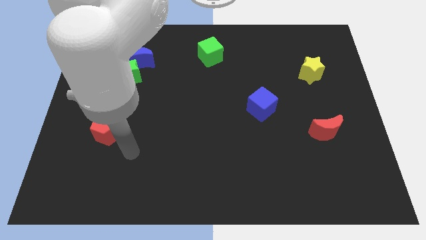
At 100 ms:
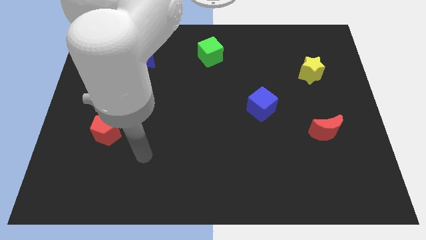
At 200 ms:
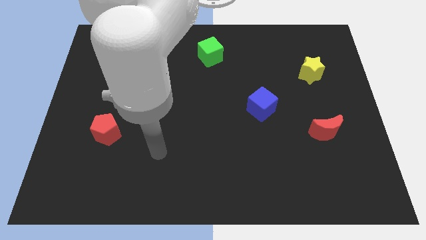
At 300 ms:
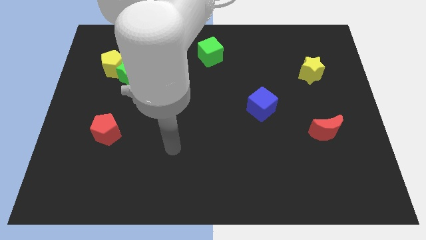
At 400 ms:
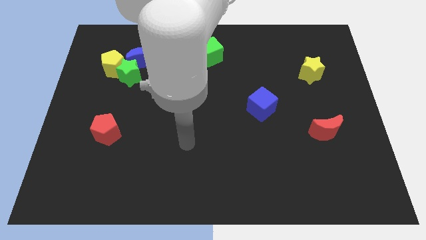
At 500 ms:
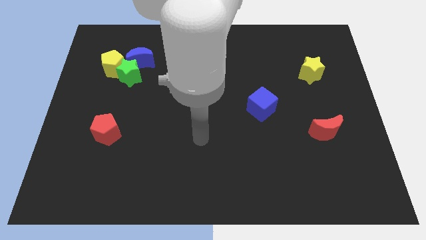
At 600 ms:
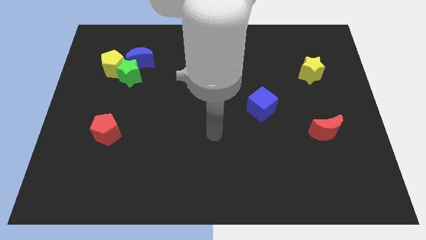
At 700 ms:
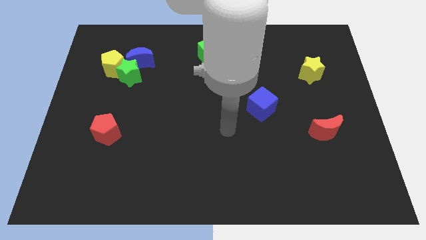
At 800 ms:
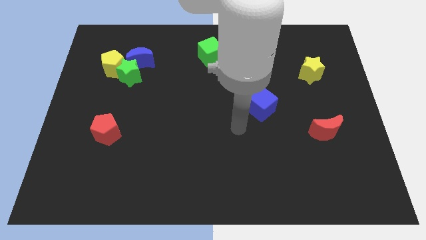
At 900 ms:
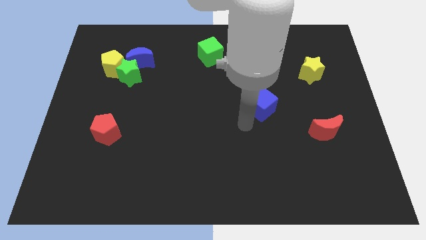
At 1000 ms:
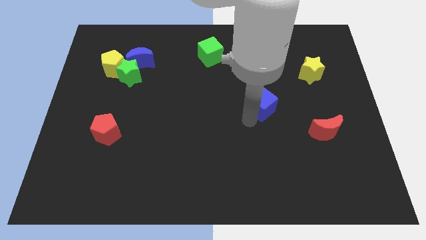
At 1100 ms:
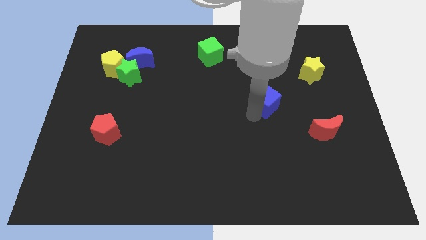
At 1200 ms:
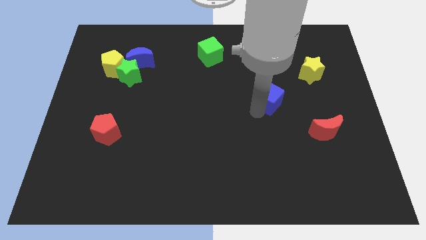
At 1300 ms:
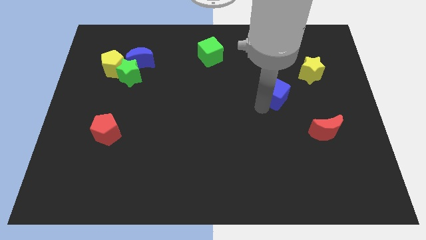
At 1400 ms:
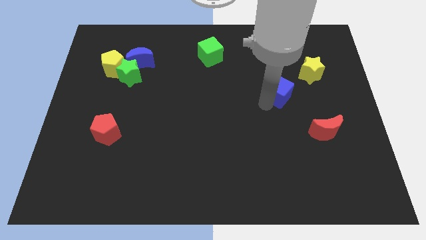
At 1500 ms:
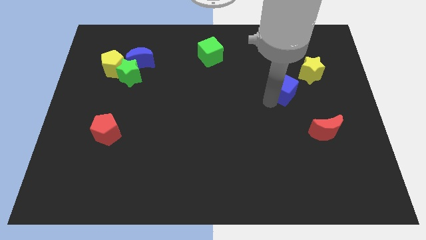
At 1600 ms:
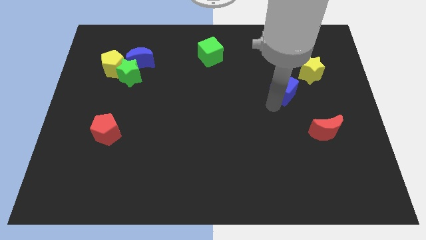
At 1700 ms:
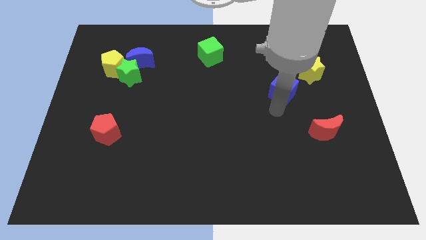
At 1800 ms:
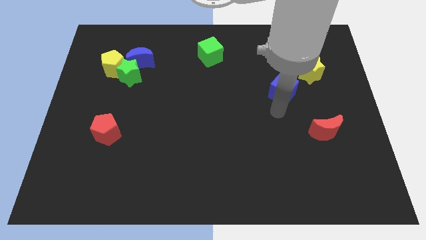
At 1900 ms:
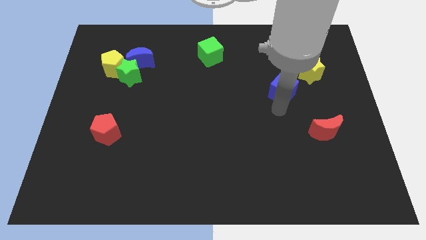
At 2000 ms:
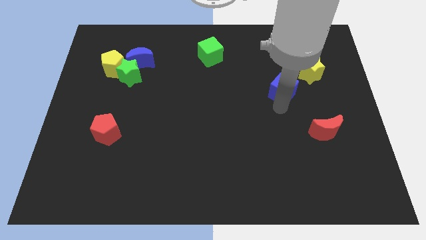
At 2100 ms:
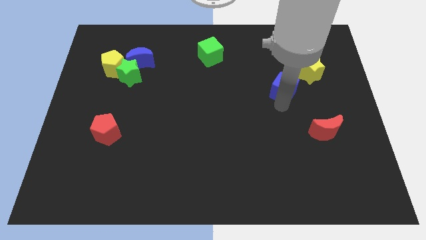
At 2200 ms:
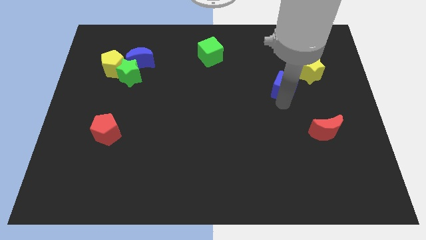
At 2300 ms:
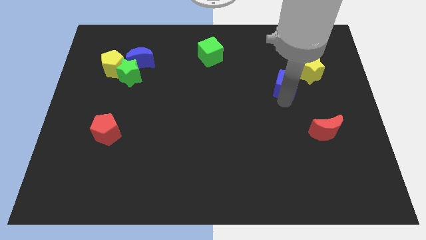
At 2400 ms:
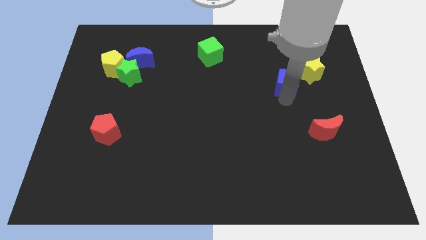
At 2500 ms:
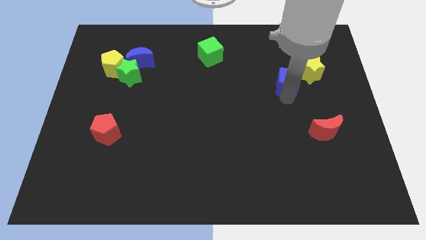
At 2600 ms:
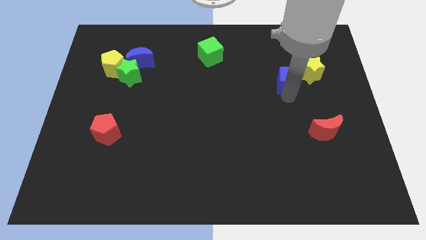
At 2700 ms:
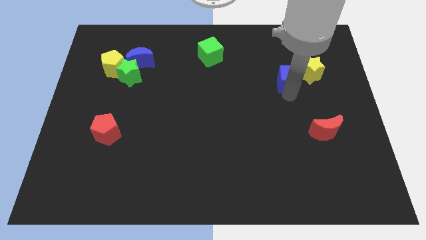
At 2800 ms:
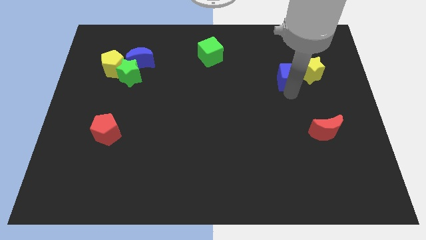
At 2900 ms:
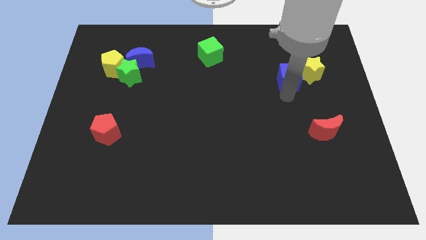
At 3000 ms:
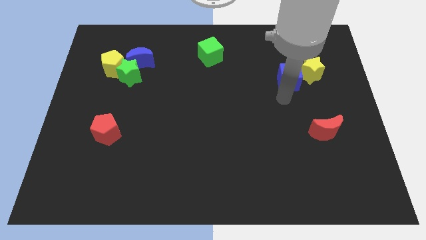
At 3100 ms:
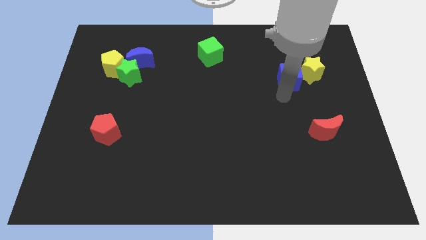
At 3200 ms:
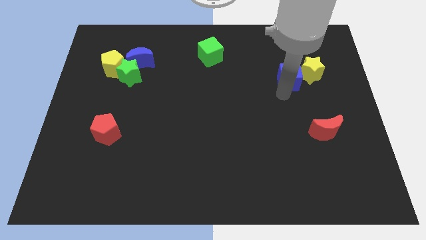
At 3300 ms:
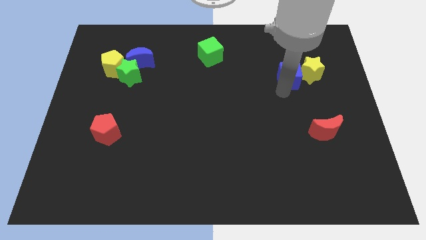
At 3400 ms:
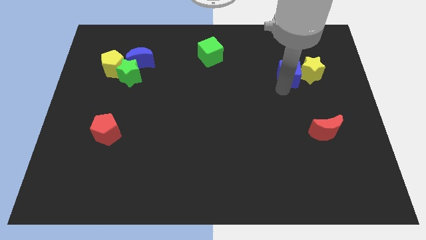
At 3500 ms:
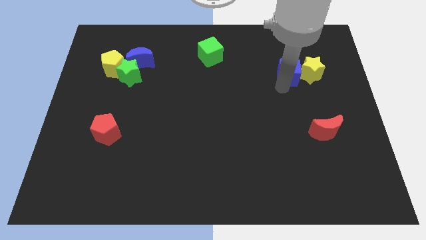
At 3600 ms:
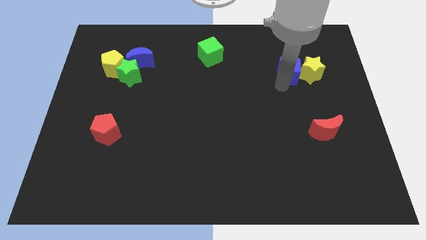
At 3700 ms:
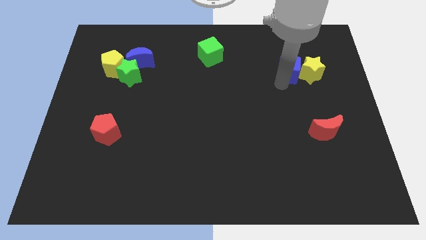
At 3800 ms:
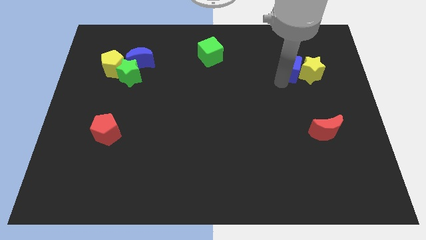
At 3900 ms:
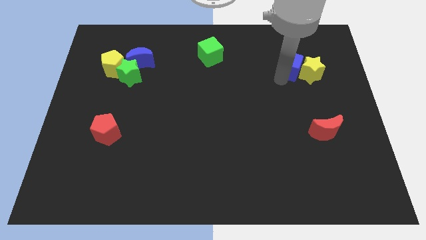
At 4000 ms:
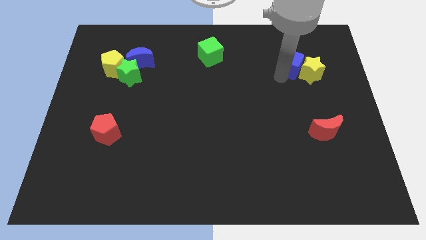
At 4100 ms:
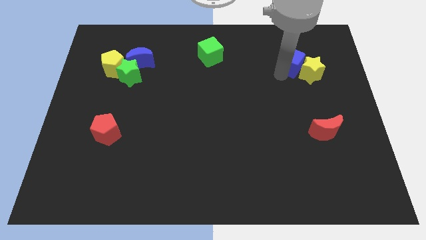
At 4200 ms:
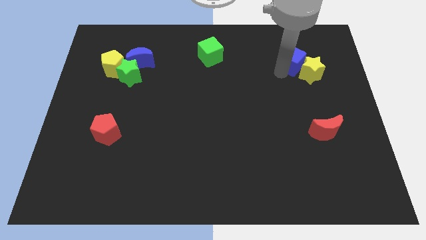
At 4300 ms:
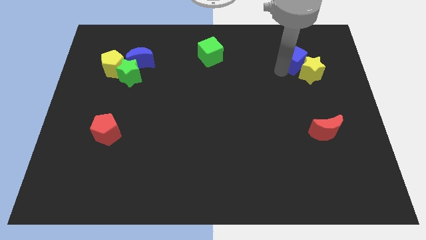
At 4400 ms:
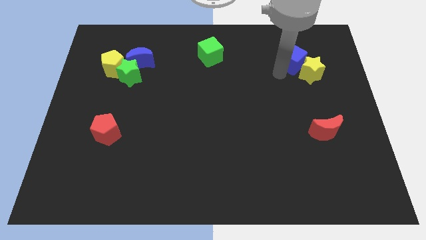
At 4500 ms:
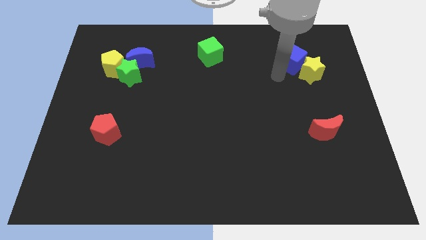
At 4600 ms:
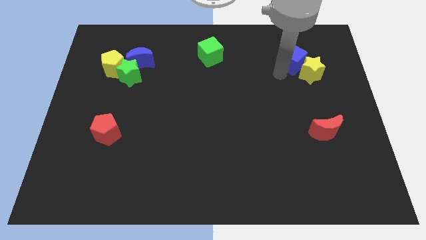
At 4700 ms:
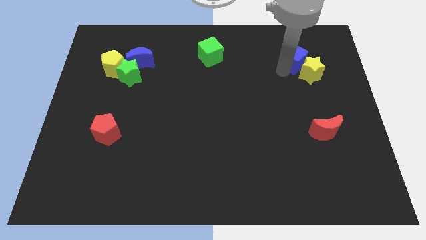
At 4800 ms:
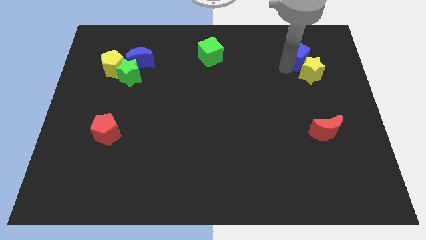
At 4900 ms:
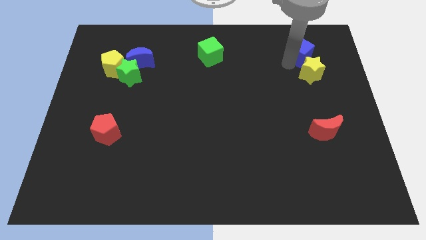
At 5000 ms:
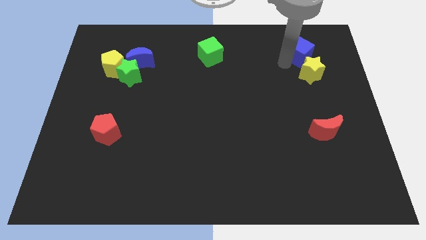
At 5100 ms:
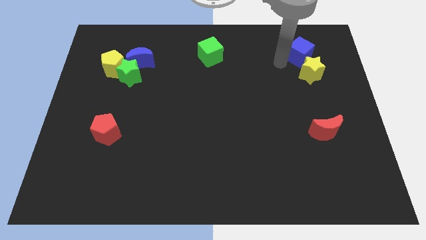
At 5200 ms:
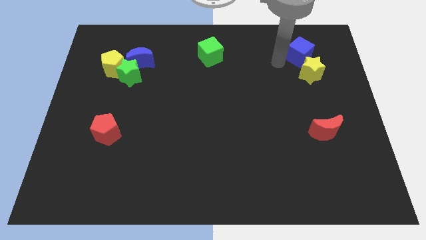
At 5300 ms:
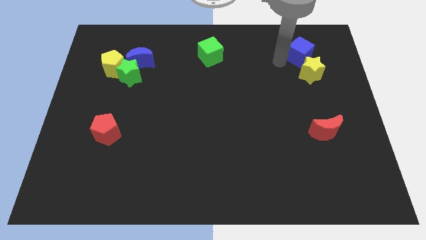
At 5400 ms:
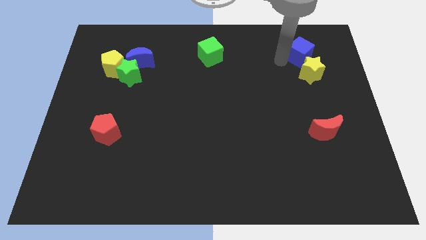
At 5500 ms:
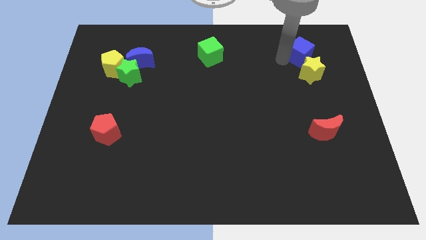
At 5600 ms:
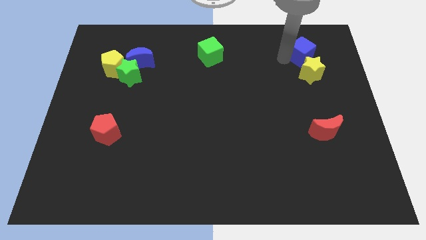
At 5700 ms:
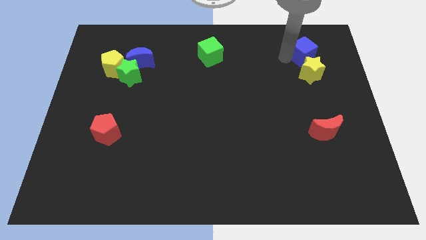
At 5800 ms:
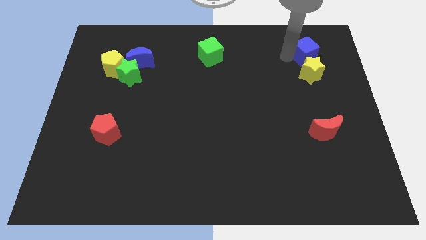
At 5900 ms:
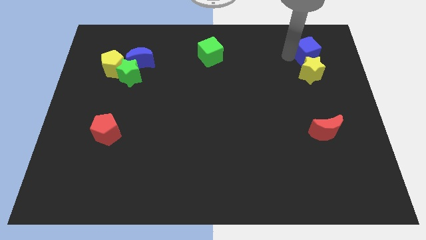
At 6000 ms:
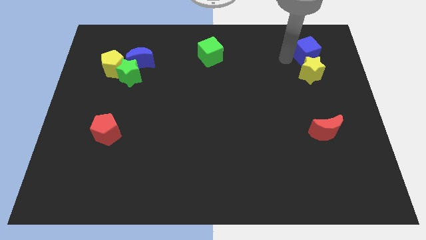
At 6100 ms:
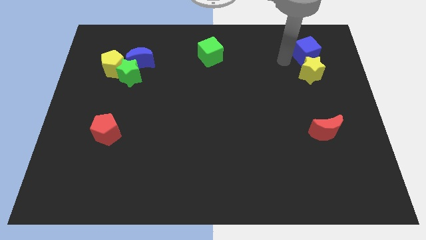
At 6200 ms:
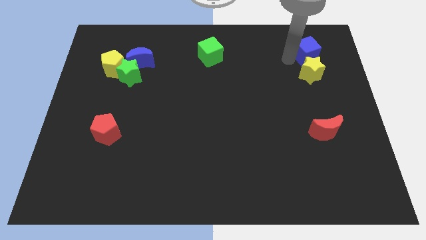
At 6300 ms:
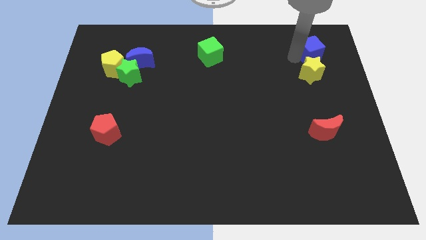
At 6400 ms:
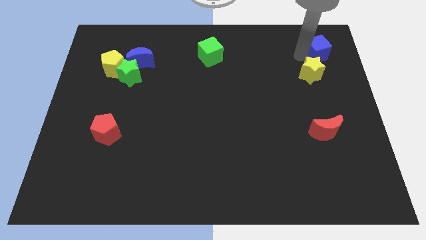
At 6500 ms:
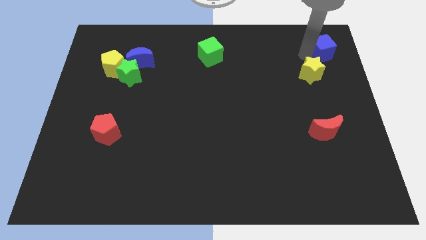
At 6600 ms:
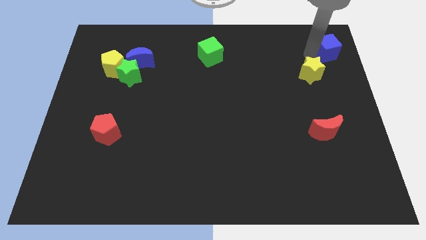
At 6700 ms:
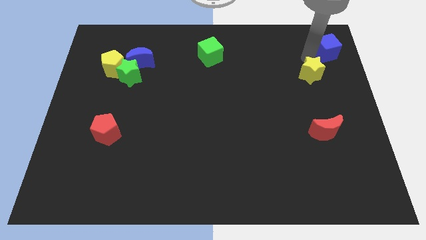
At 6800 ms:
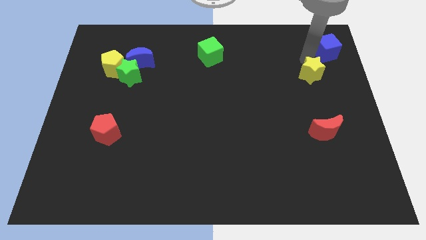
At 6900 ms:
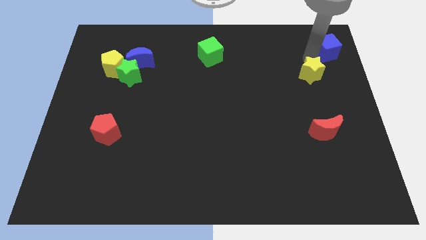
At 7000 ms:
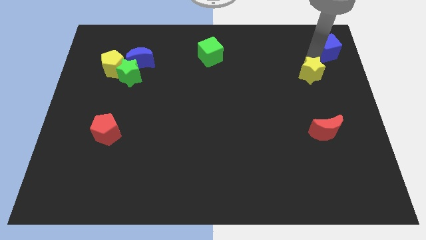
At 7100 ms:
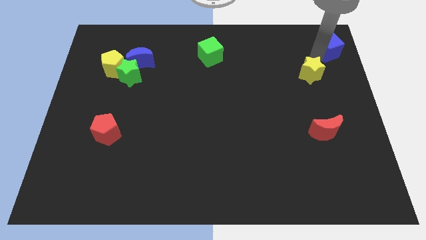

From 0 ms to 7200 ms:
move the blue cube to the upper right corner
